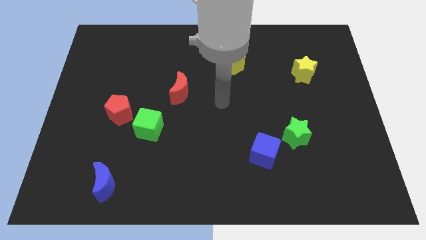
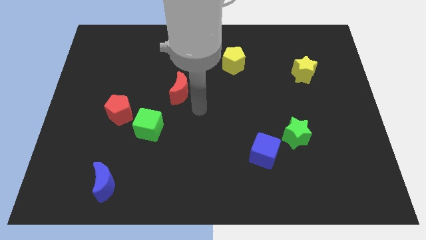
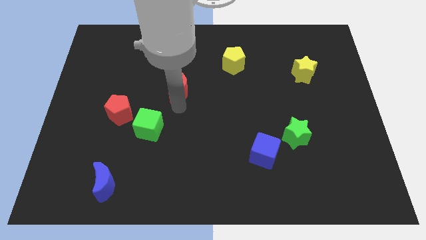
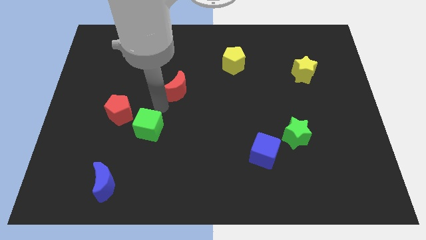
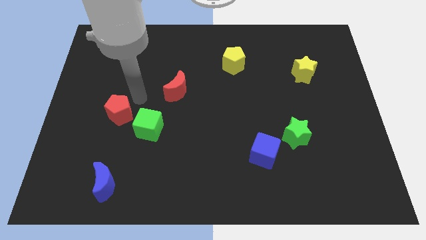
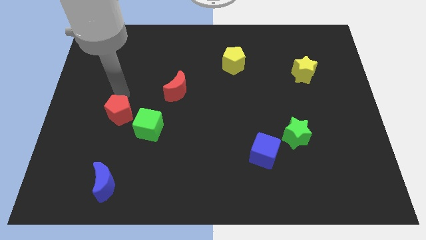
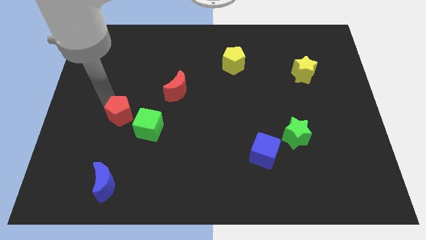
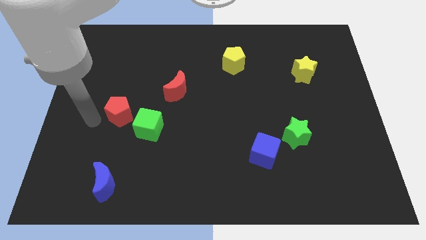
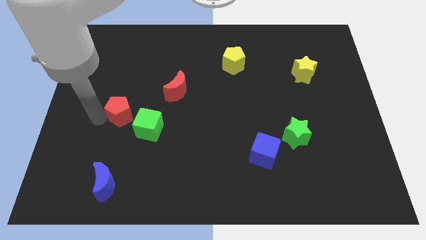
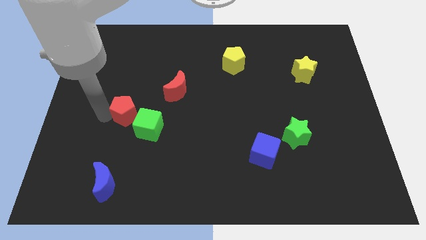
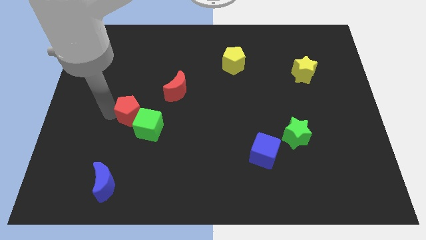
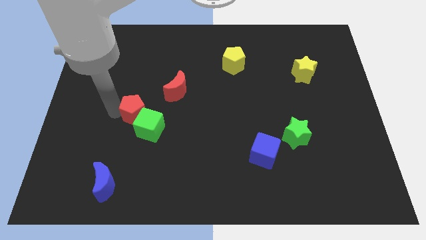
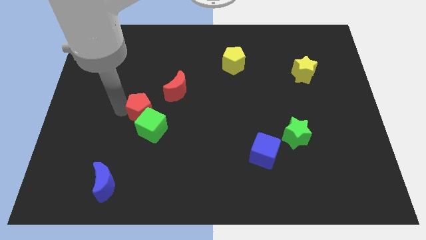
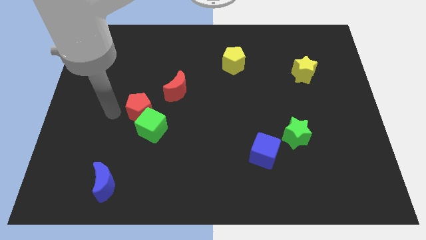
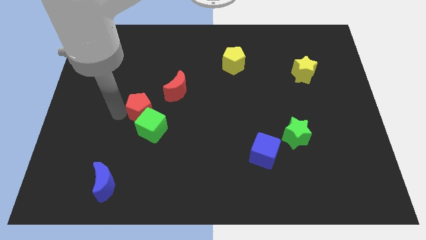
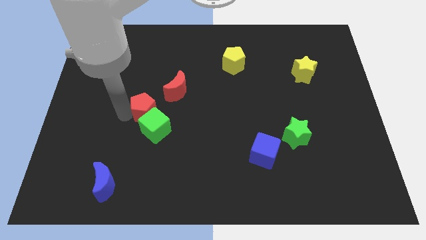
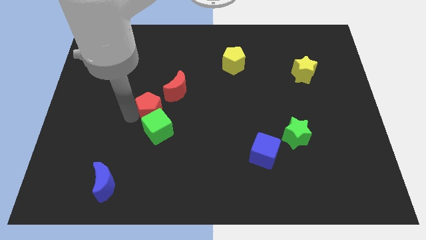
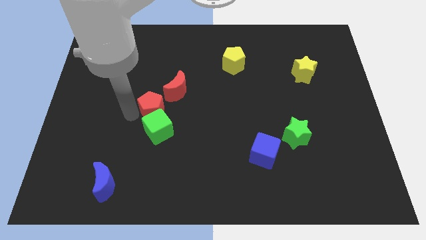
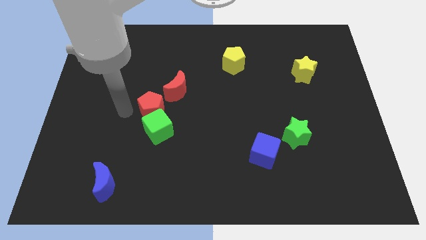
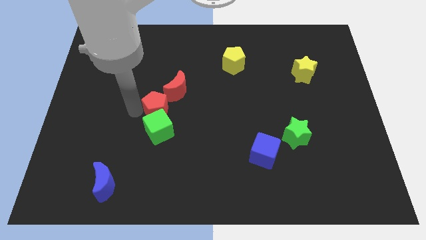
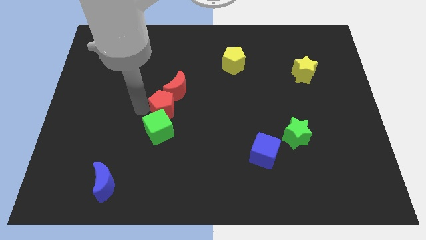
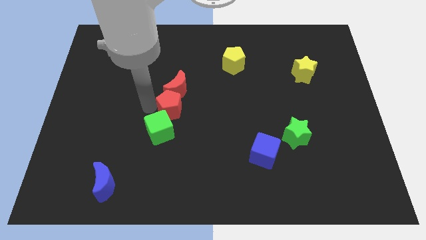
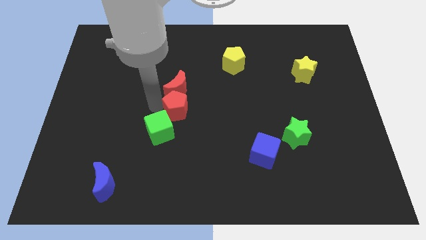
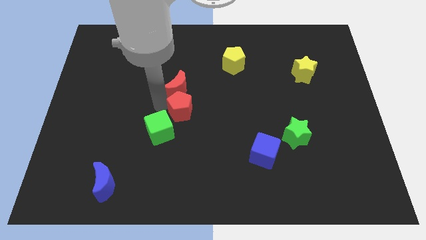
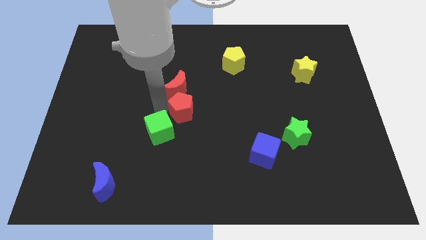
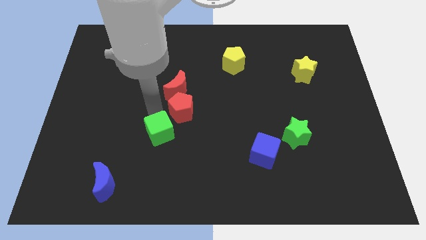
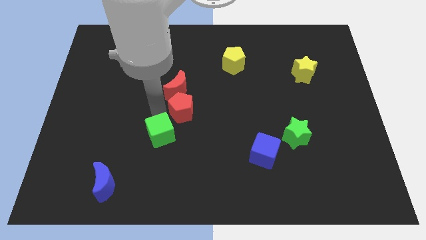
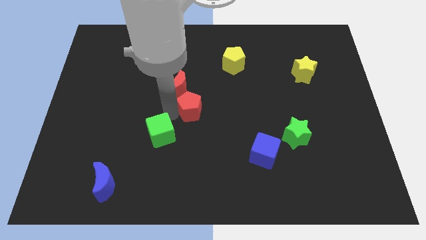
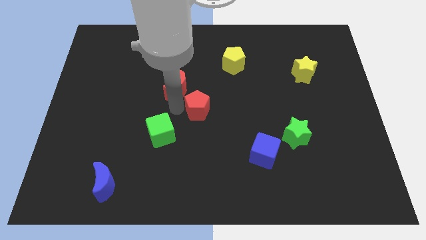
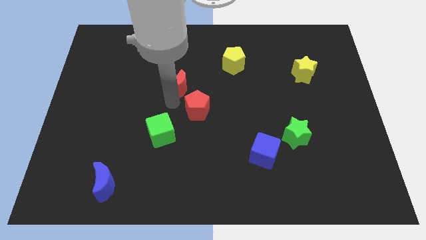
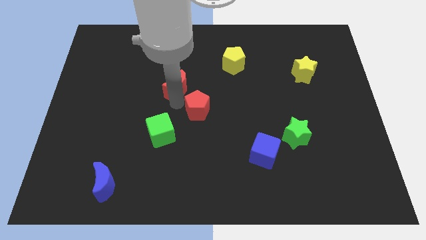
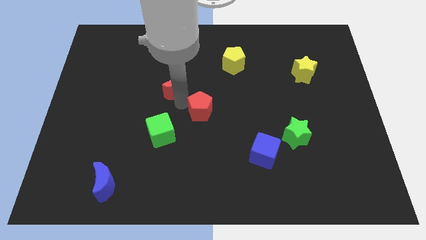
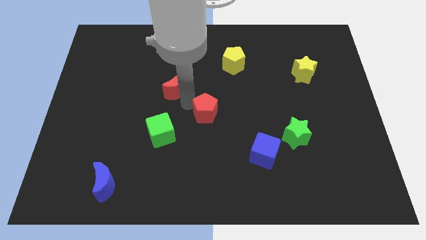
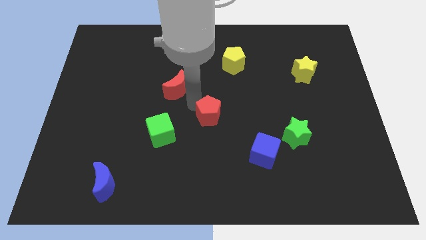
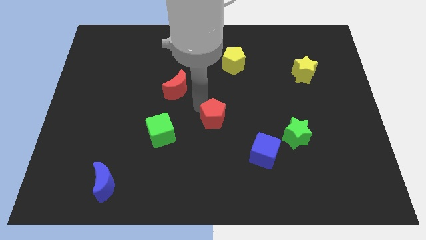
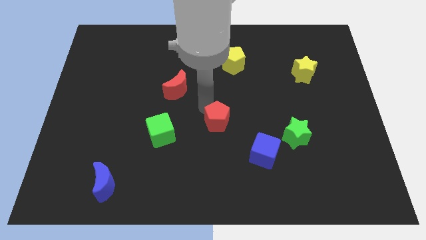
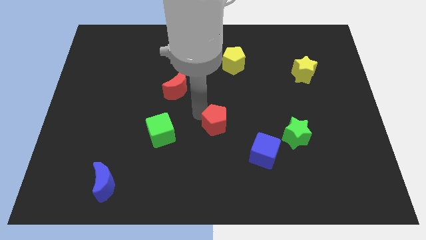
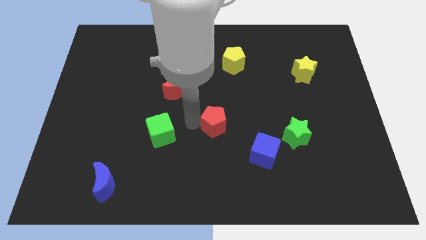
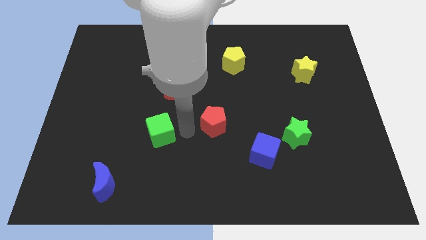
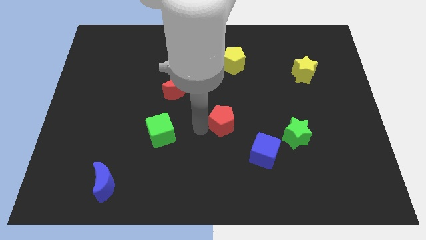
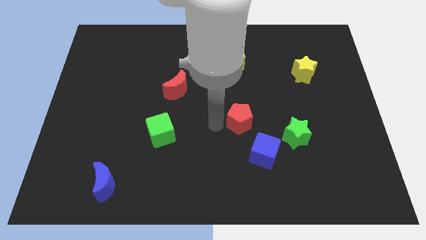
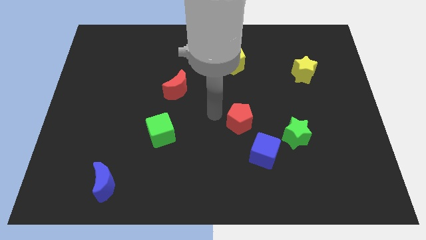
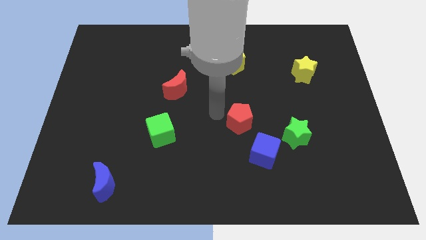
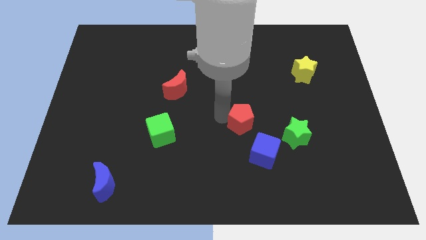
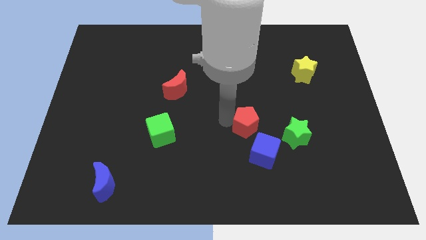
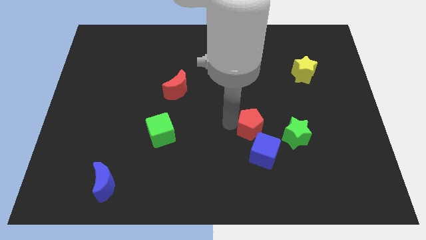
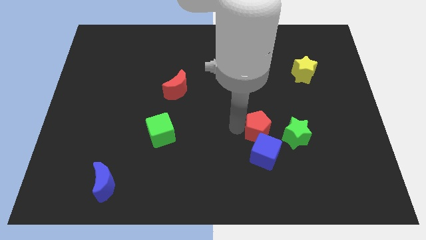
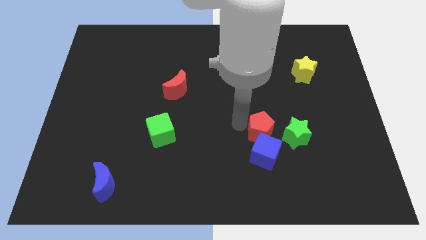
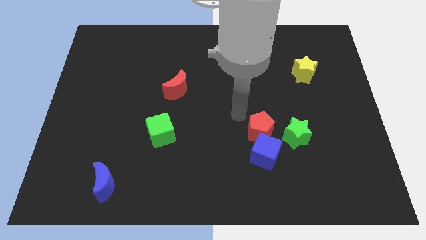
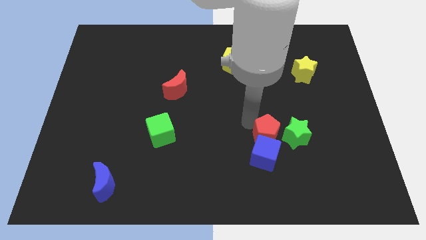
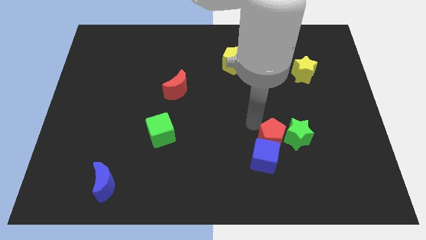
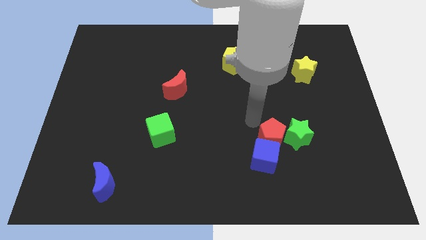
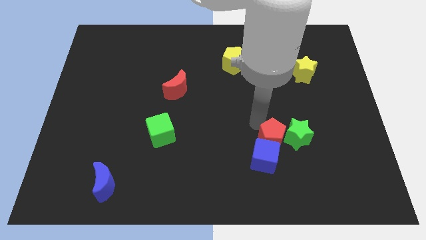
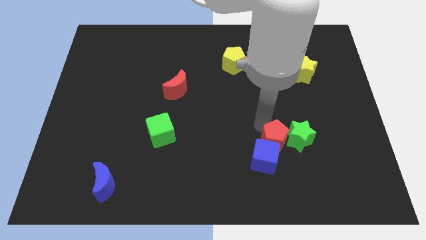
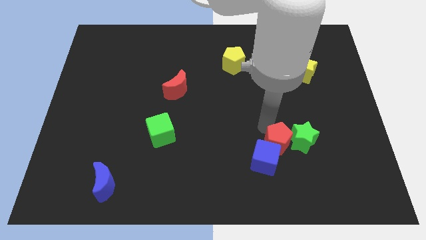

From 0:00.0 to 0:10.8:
push the red pentagon to the right of the blue cube
